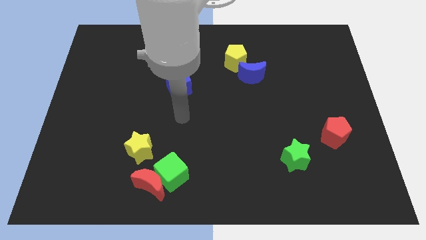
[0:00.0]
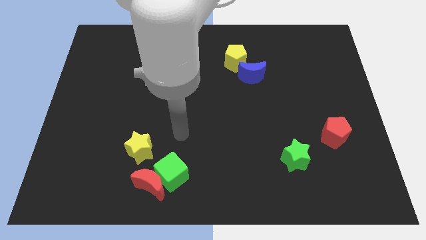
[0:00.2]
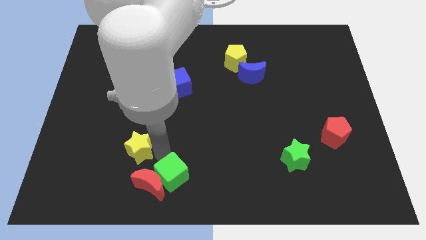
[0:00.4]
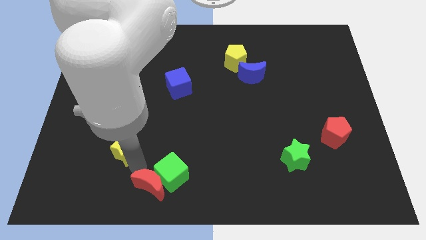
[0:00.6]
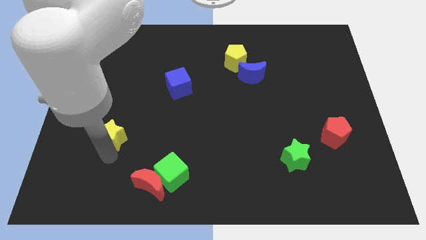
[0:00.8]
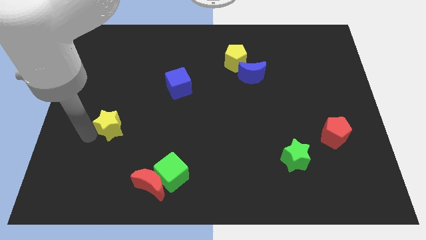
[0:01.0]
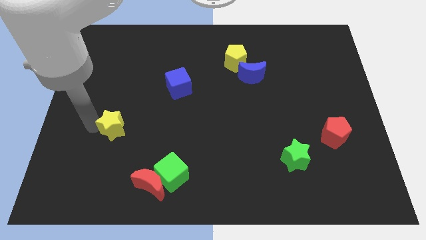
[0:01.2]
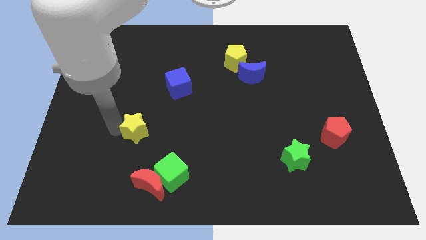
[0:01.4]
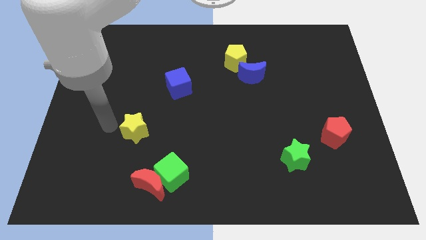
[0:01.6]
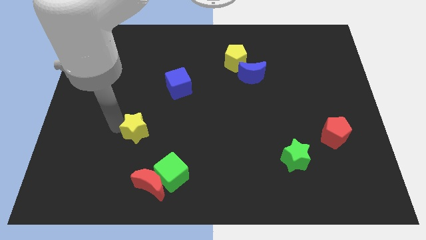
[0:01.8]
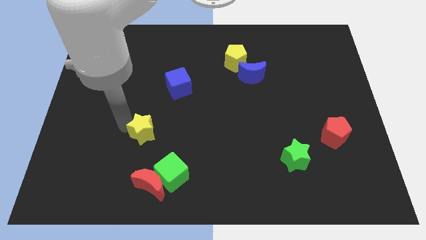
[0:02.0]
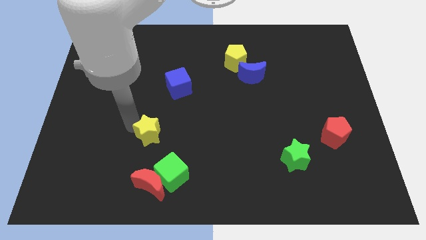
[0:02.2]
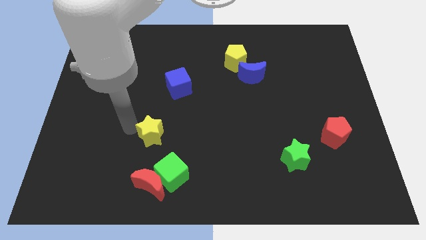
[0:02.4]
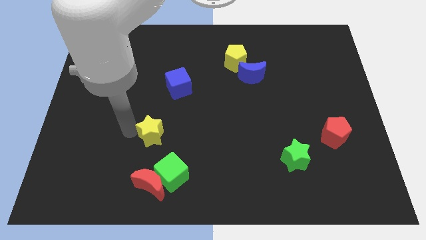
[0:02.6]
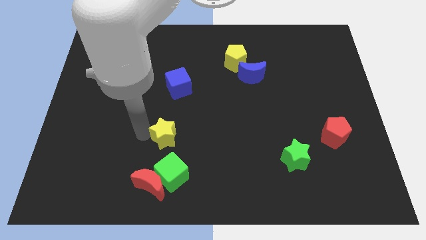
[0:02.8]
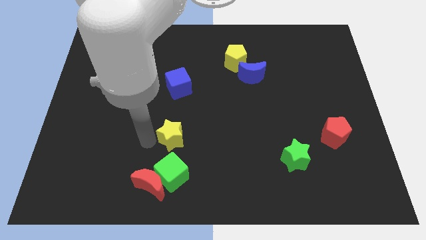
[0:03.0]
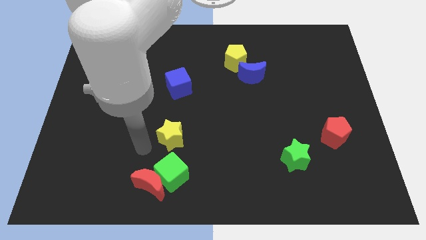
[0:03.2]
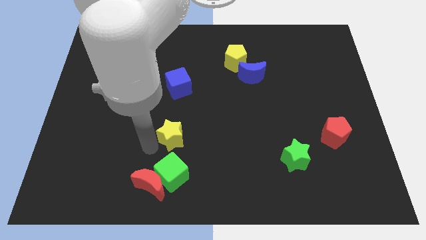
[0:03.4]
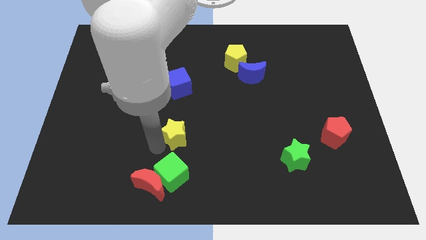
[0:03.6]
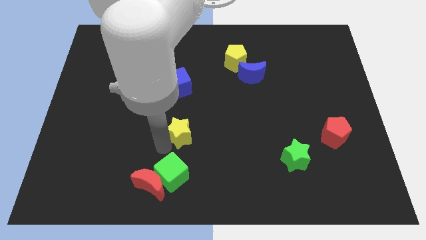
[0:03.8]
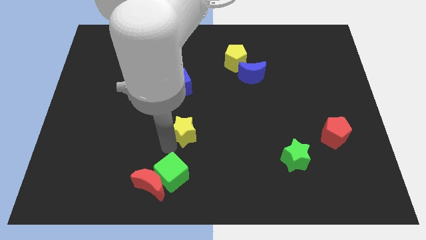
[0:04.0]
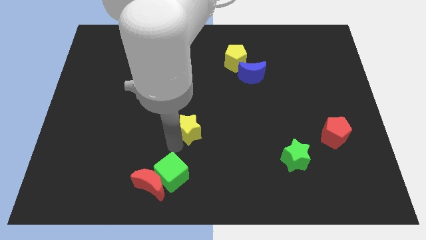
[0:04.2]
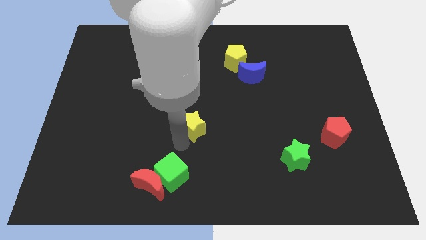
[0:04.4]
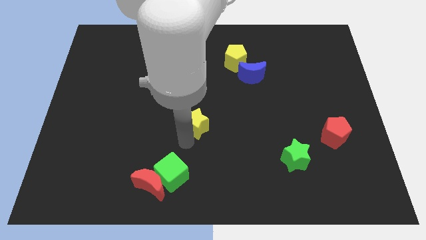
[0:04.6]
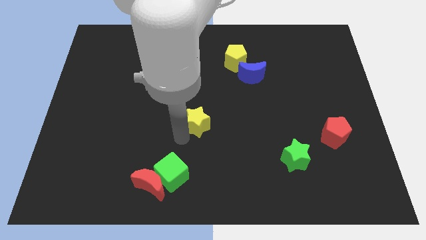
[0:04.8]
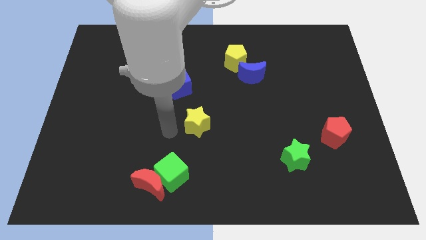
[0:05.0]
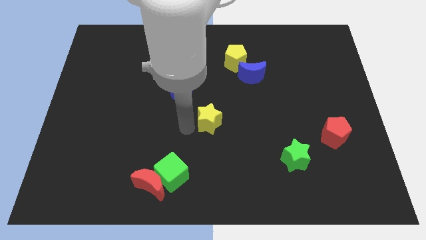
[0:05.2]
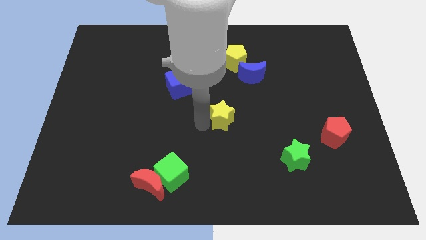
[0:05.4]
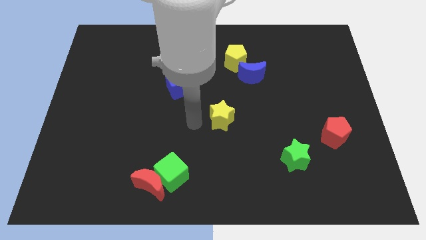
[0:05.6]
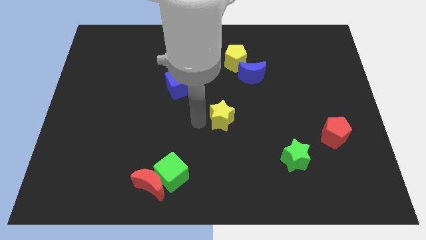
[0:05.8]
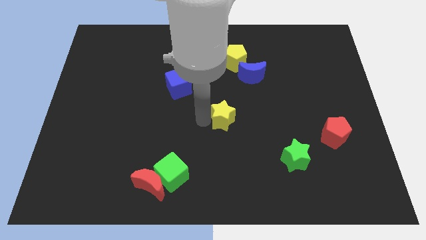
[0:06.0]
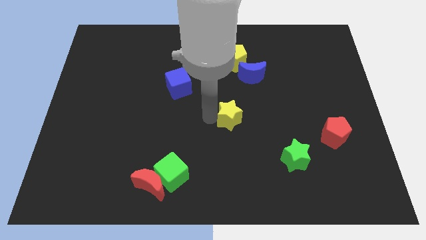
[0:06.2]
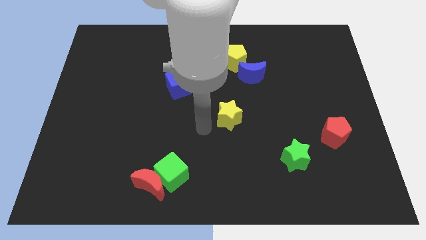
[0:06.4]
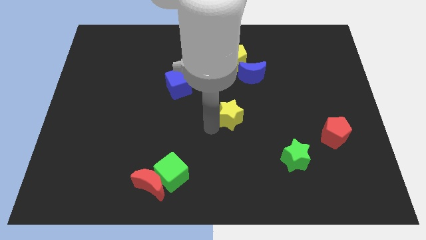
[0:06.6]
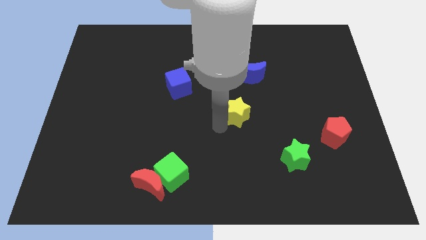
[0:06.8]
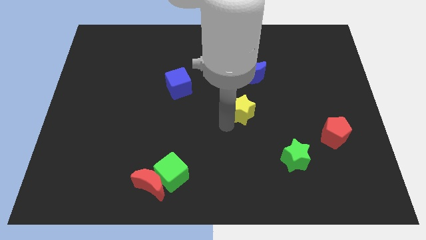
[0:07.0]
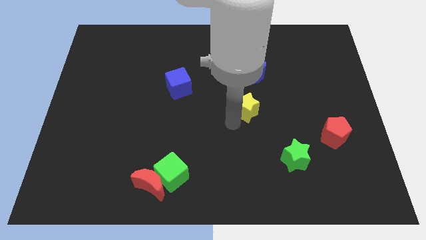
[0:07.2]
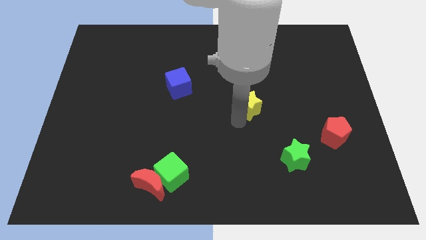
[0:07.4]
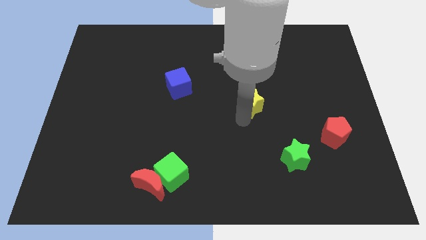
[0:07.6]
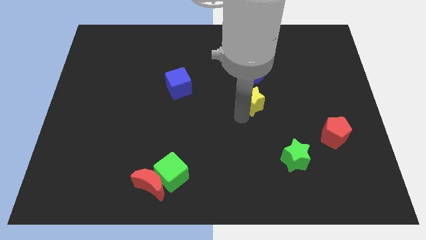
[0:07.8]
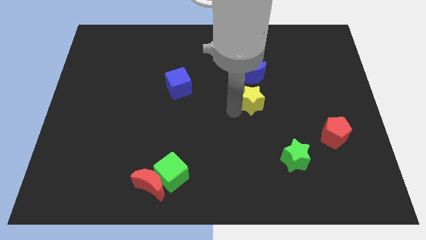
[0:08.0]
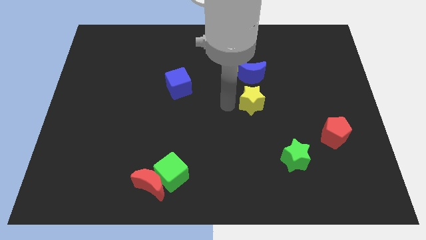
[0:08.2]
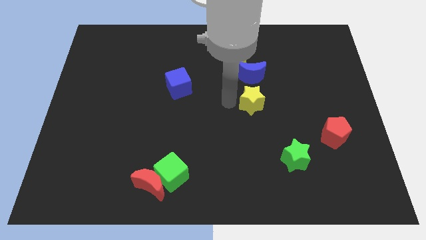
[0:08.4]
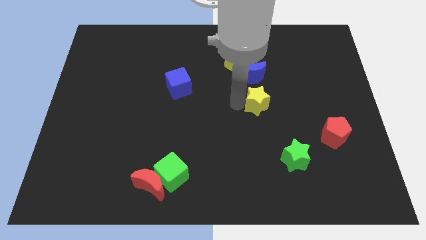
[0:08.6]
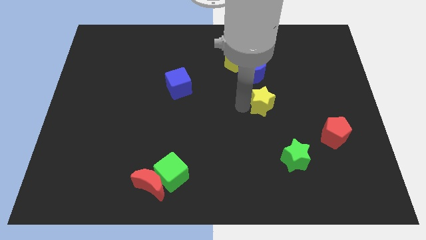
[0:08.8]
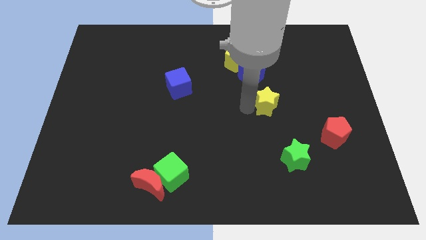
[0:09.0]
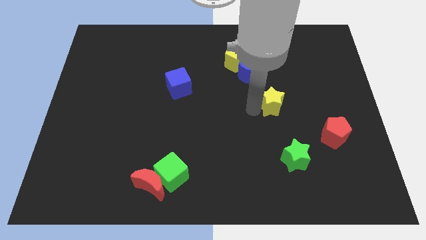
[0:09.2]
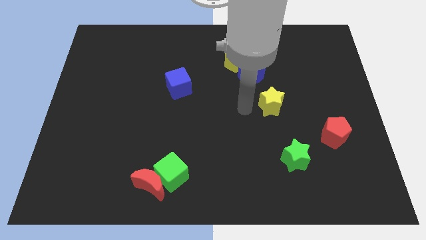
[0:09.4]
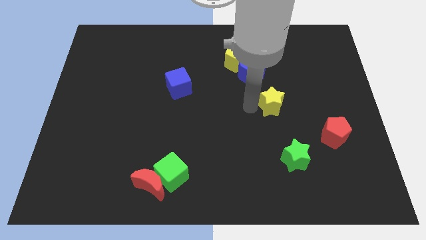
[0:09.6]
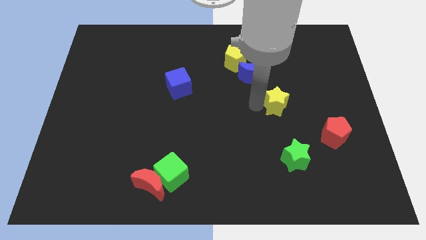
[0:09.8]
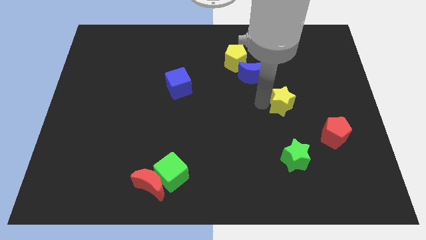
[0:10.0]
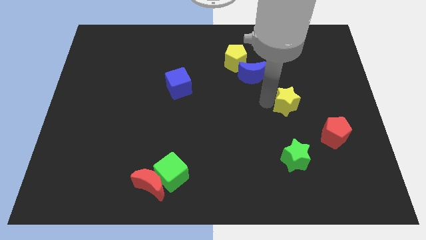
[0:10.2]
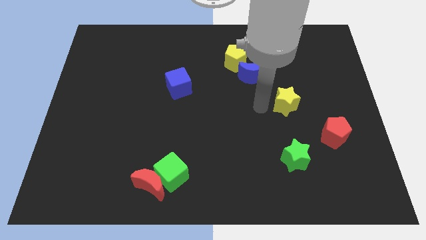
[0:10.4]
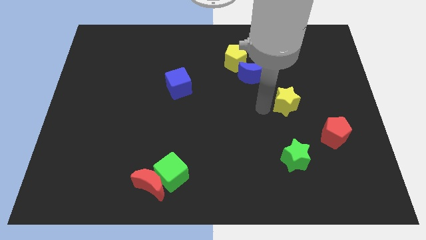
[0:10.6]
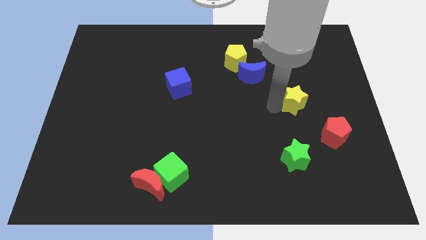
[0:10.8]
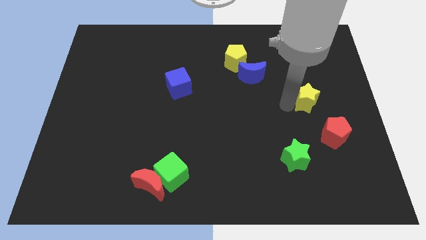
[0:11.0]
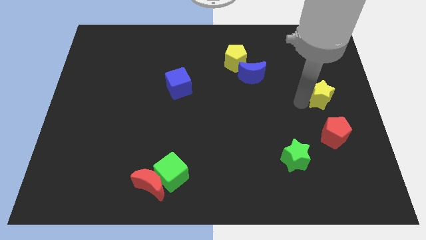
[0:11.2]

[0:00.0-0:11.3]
push the yellow star to the right side

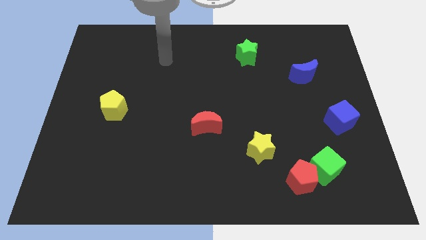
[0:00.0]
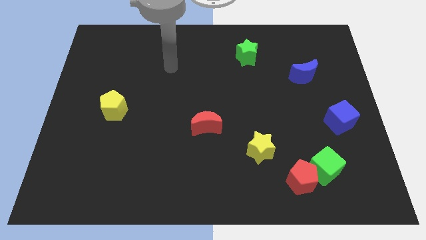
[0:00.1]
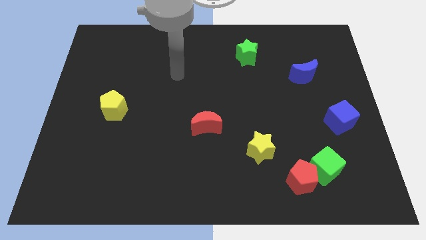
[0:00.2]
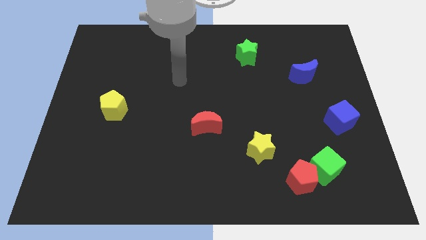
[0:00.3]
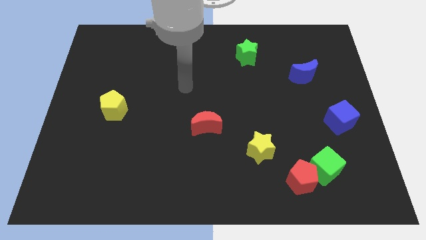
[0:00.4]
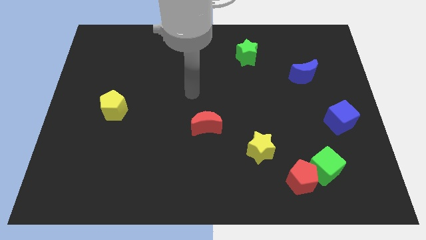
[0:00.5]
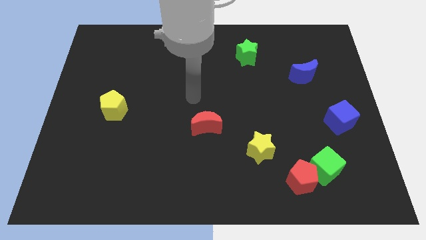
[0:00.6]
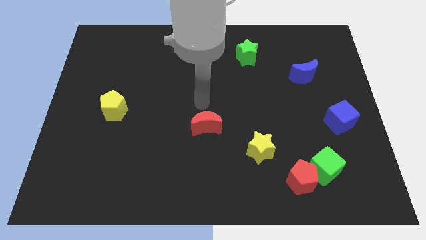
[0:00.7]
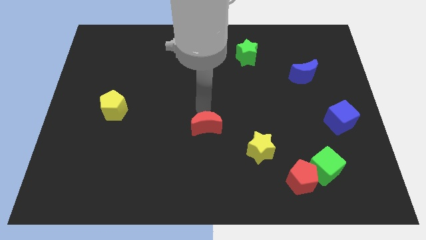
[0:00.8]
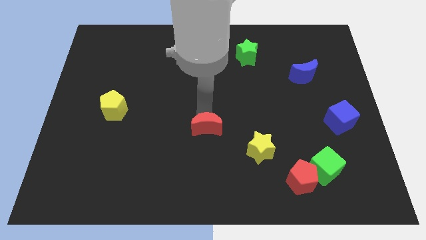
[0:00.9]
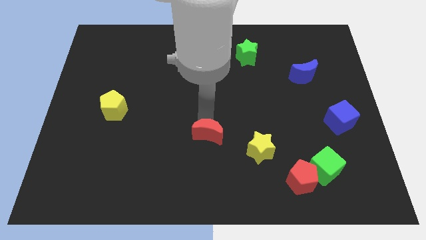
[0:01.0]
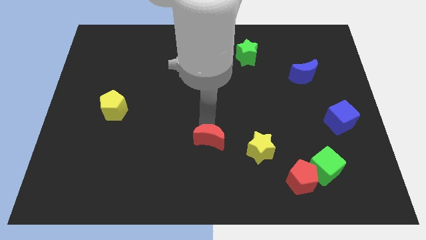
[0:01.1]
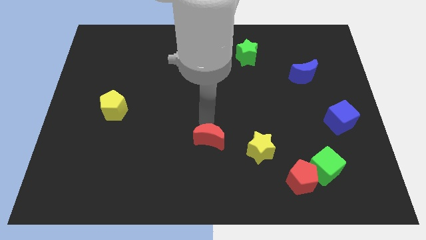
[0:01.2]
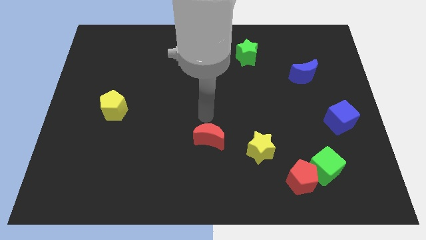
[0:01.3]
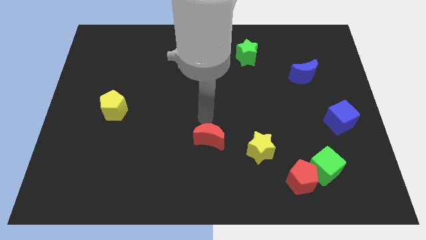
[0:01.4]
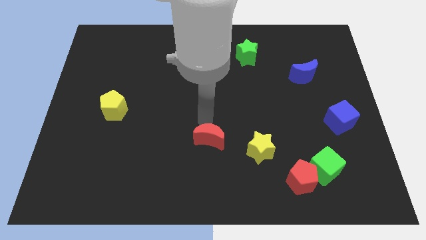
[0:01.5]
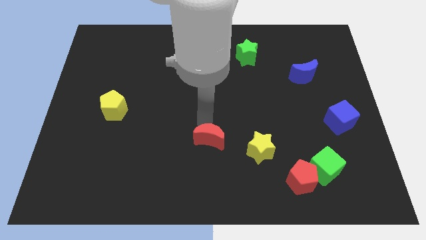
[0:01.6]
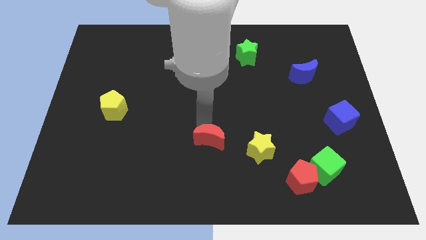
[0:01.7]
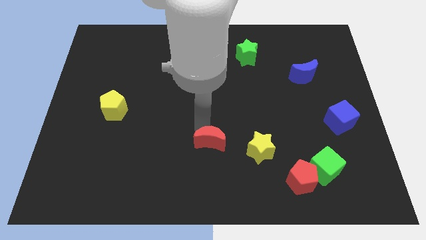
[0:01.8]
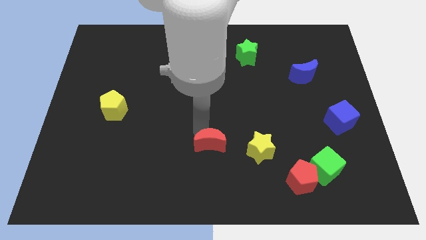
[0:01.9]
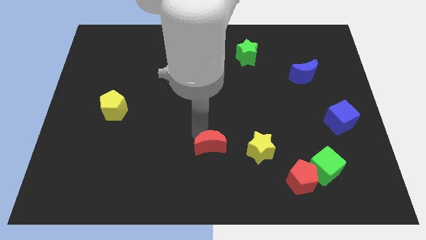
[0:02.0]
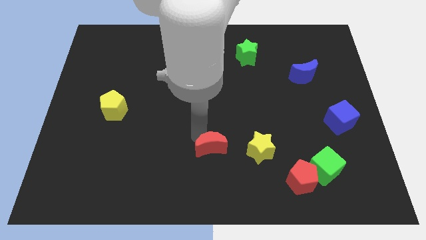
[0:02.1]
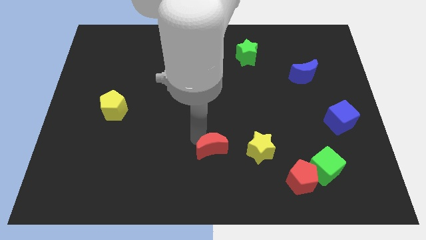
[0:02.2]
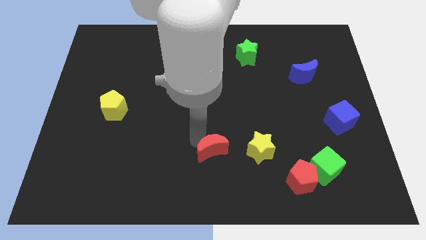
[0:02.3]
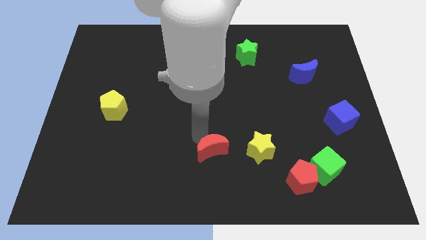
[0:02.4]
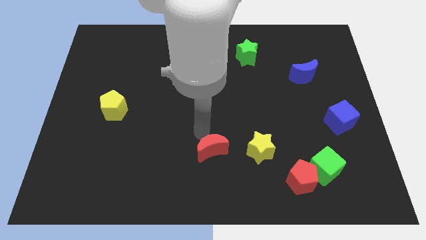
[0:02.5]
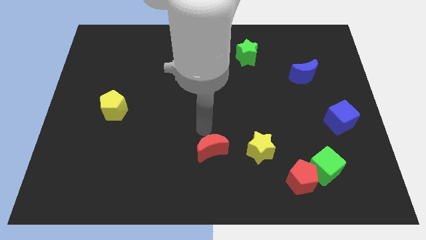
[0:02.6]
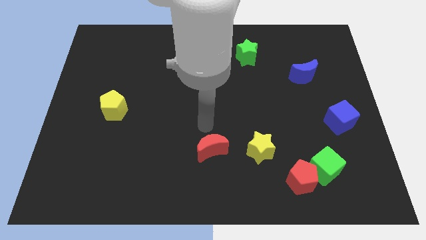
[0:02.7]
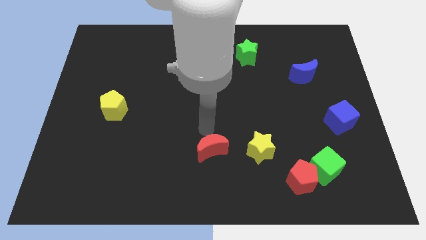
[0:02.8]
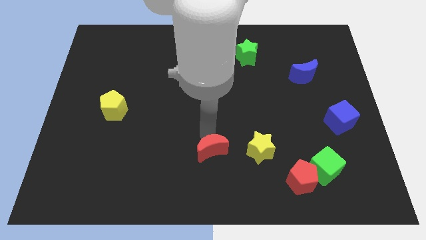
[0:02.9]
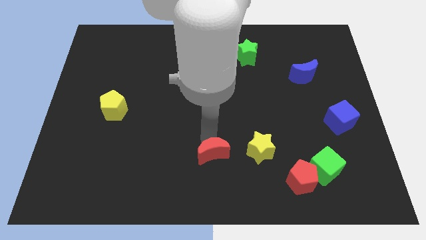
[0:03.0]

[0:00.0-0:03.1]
move the red moon to the bottom
